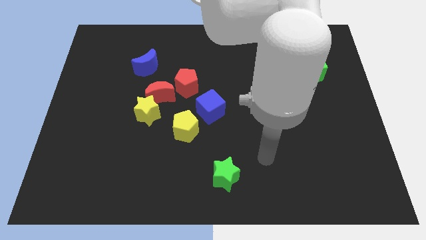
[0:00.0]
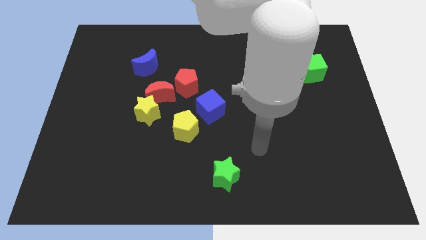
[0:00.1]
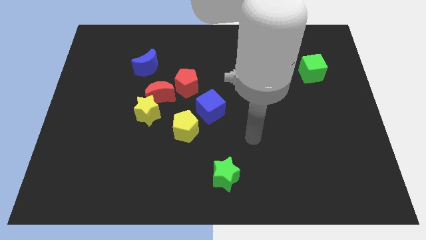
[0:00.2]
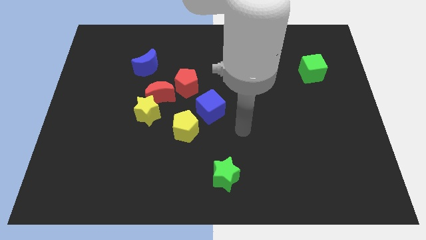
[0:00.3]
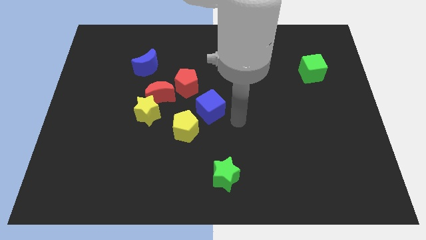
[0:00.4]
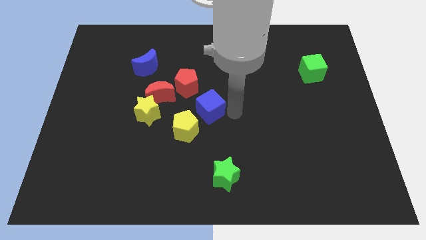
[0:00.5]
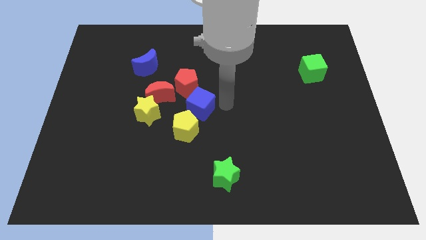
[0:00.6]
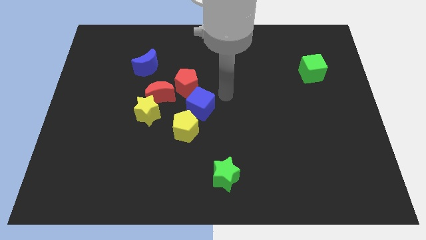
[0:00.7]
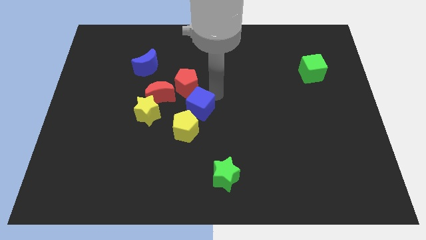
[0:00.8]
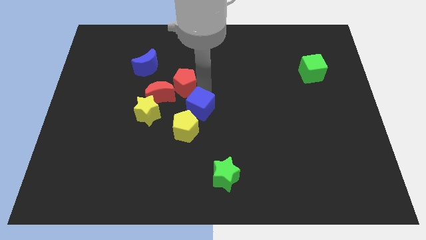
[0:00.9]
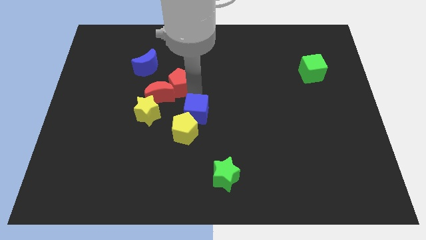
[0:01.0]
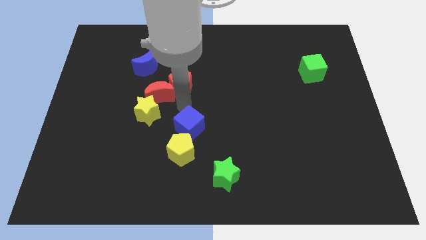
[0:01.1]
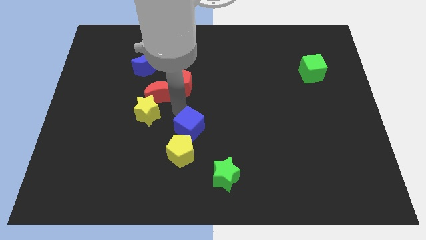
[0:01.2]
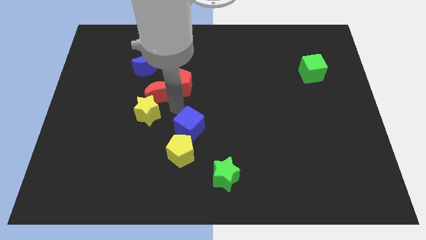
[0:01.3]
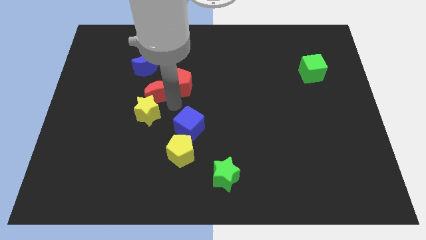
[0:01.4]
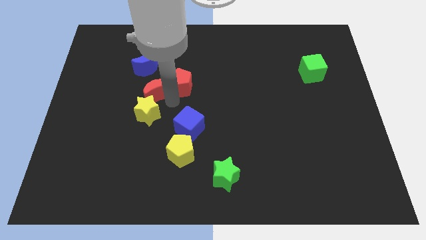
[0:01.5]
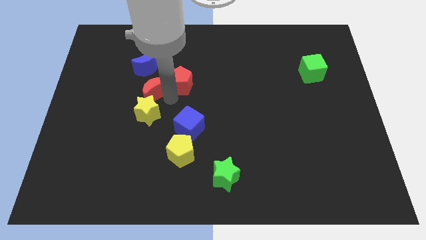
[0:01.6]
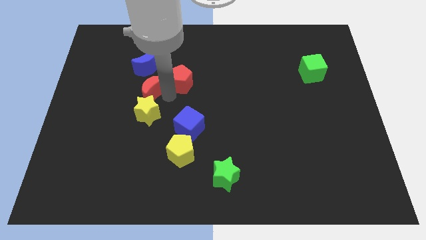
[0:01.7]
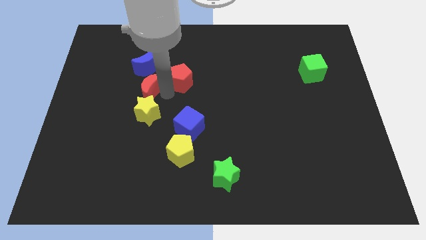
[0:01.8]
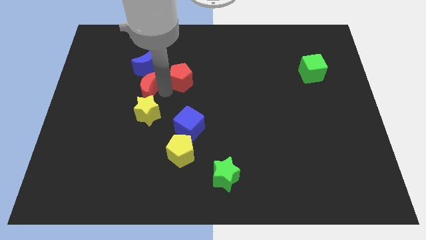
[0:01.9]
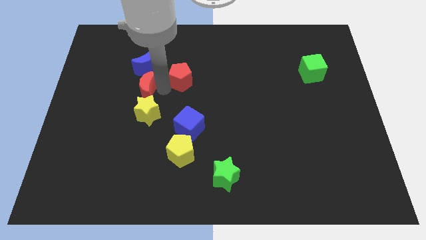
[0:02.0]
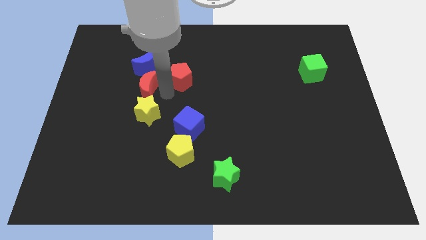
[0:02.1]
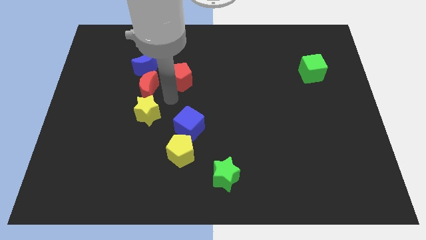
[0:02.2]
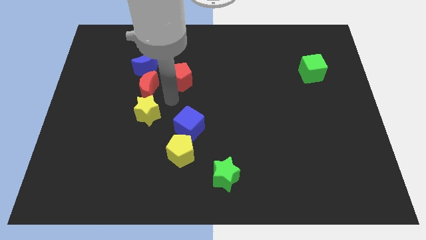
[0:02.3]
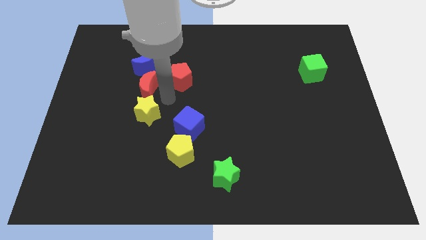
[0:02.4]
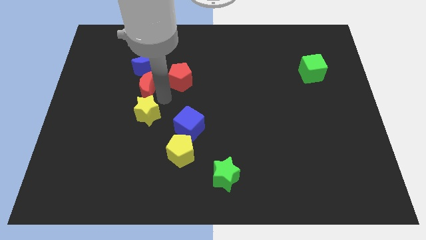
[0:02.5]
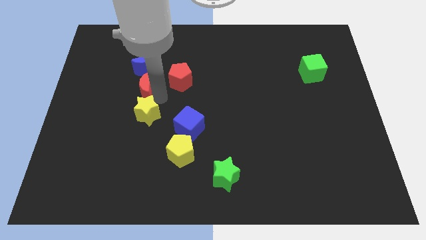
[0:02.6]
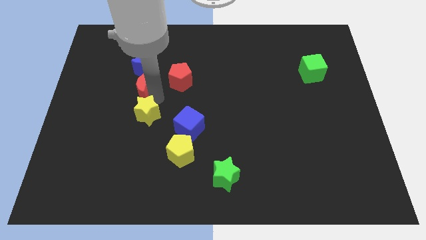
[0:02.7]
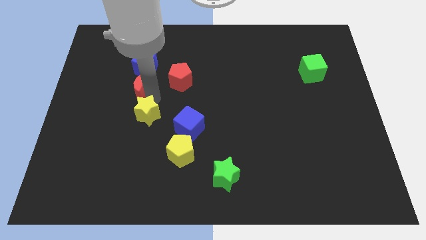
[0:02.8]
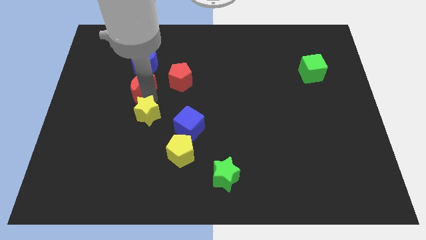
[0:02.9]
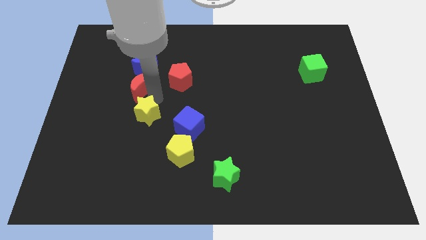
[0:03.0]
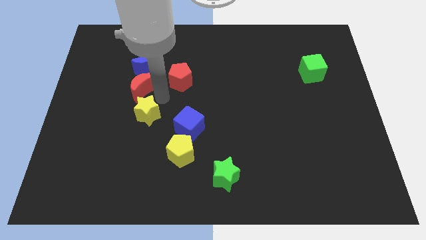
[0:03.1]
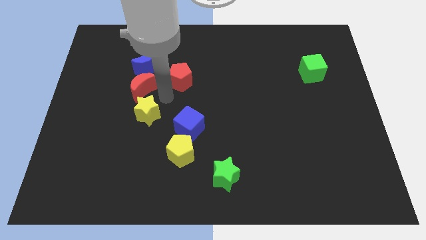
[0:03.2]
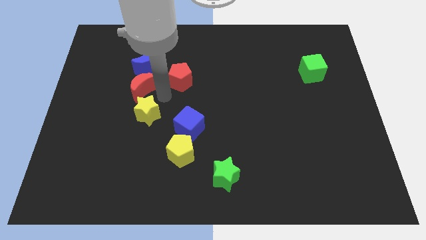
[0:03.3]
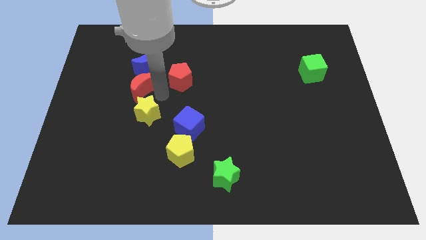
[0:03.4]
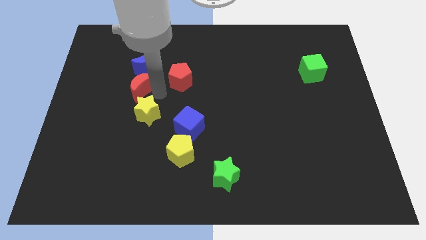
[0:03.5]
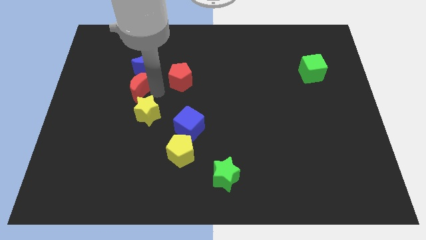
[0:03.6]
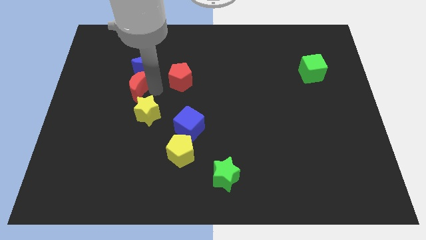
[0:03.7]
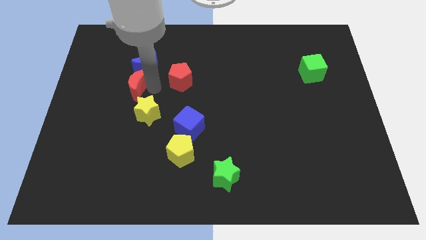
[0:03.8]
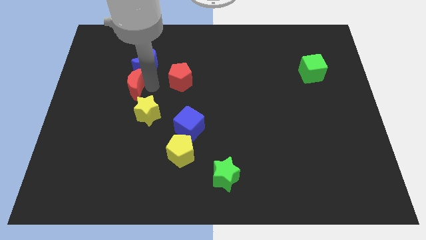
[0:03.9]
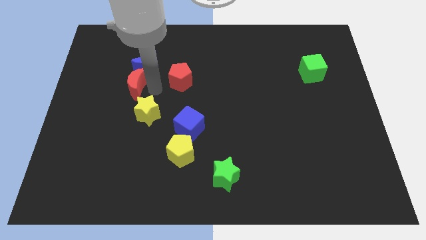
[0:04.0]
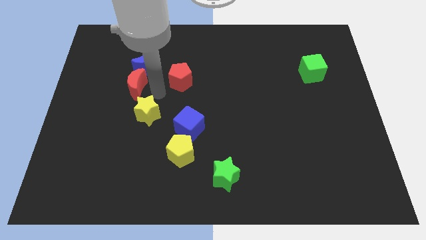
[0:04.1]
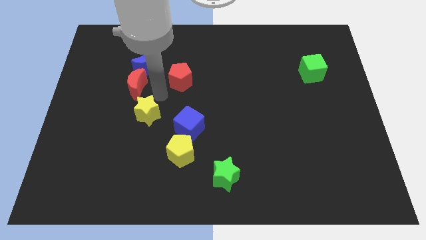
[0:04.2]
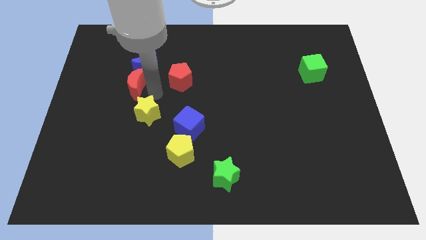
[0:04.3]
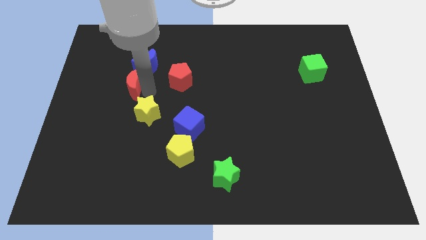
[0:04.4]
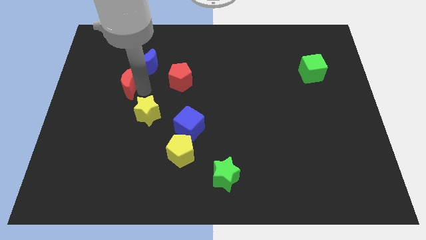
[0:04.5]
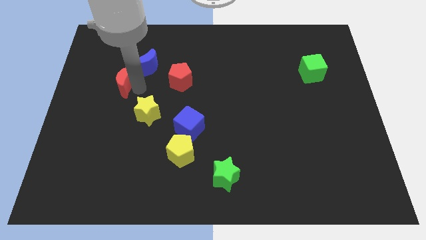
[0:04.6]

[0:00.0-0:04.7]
move the red moon away from the yellow star and red pentagon

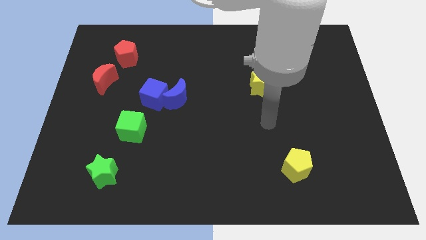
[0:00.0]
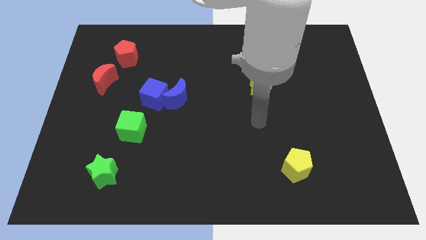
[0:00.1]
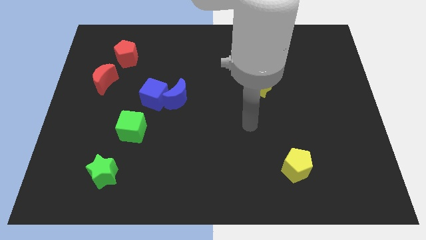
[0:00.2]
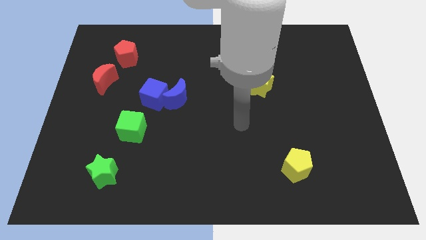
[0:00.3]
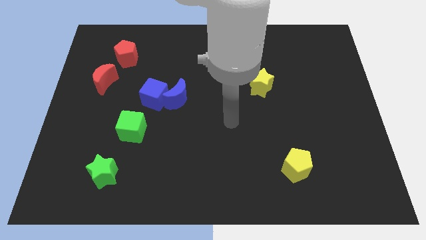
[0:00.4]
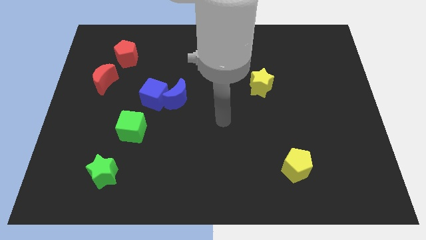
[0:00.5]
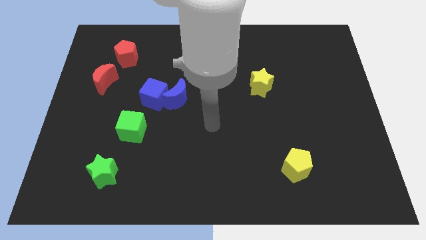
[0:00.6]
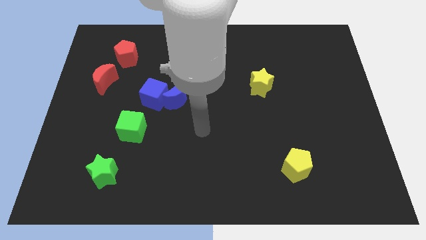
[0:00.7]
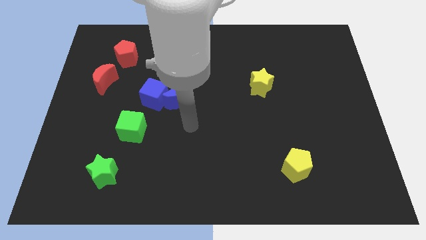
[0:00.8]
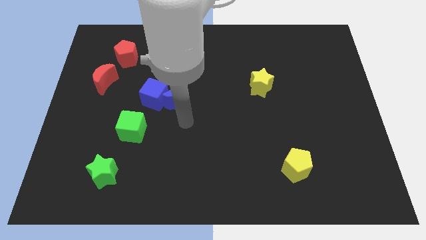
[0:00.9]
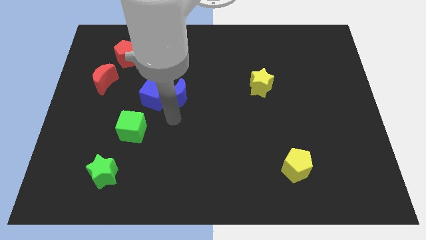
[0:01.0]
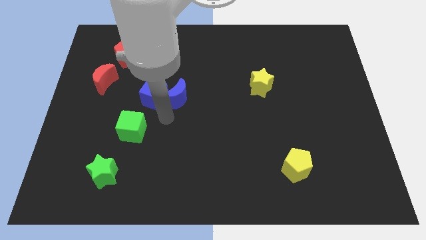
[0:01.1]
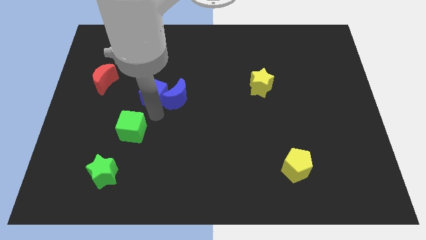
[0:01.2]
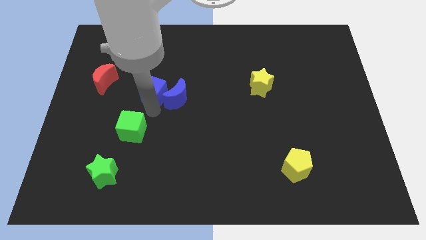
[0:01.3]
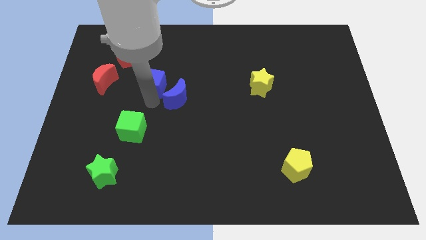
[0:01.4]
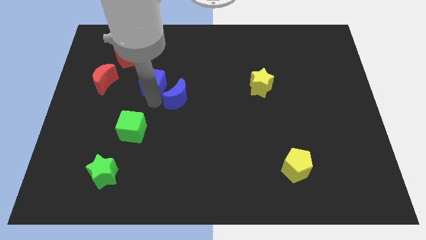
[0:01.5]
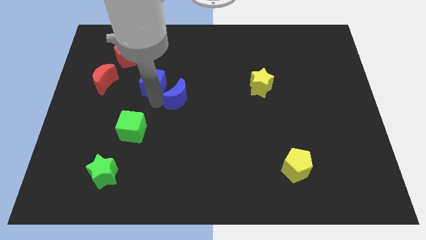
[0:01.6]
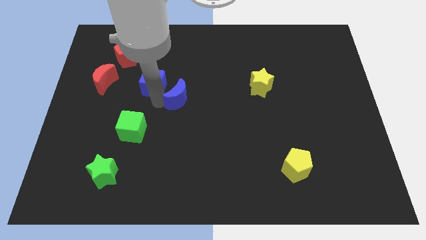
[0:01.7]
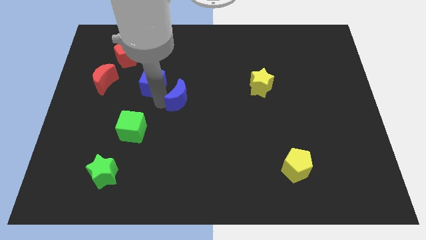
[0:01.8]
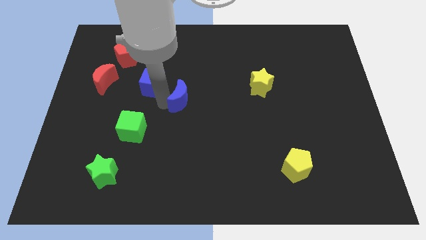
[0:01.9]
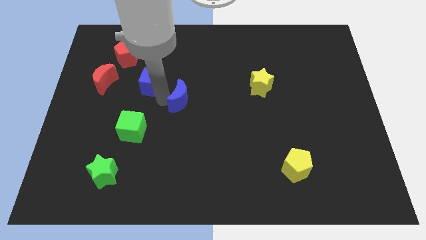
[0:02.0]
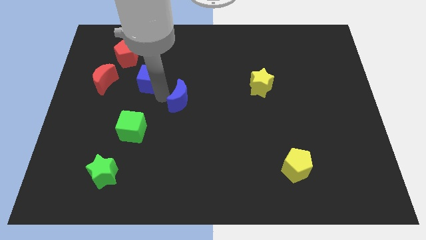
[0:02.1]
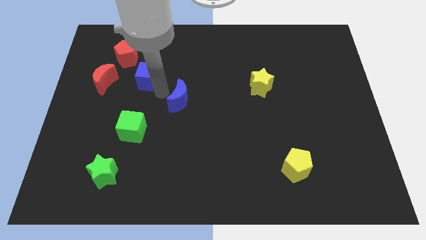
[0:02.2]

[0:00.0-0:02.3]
separate the blue moon from the blue cube

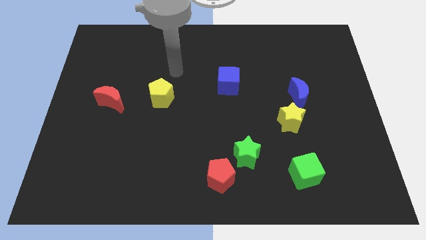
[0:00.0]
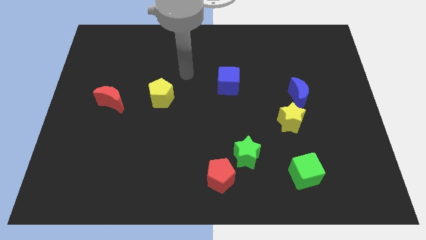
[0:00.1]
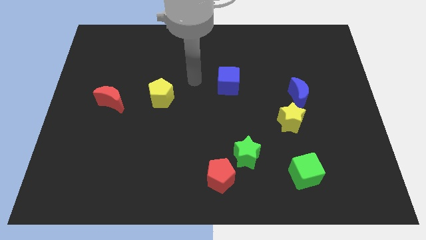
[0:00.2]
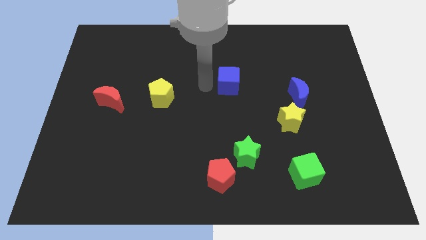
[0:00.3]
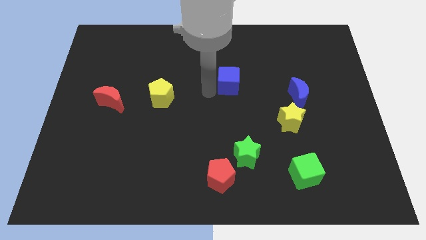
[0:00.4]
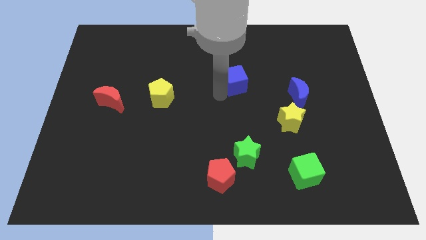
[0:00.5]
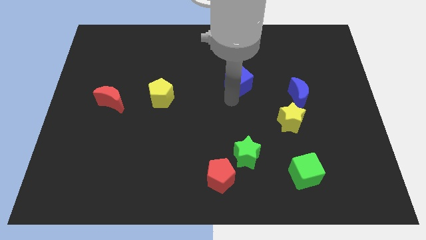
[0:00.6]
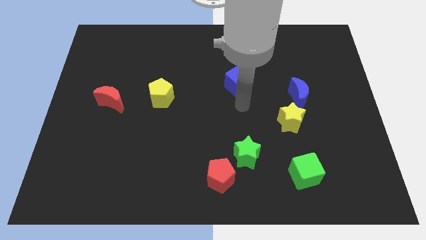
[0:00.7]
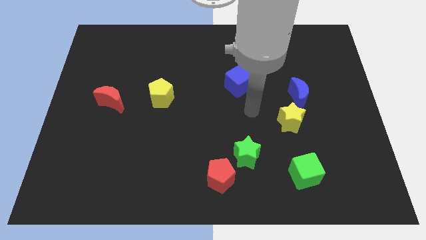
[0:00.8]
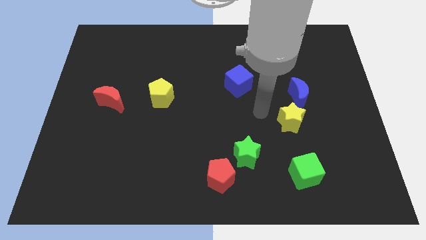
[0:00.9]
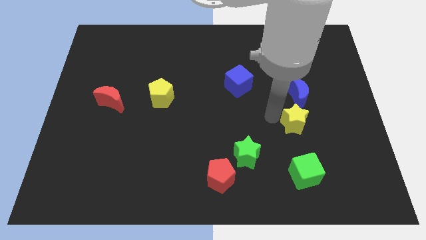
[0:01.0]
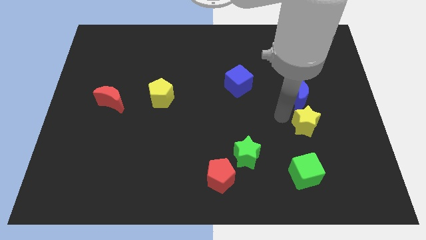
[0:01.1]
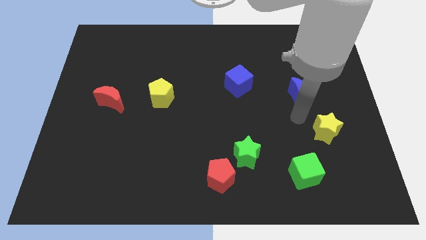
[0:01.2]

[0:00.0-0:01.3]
pull the blue moon apart from the yellow star

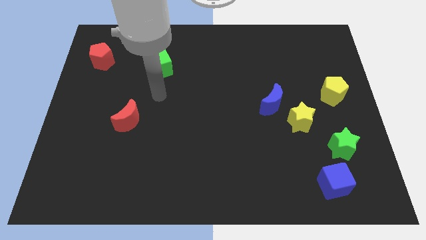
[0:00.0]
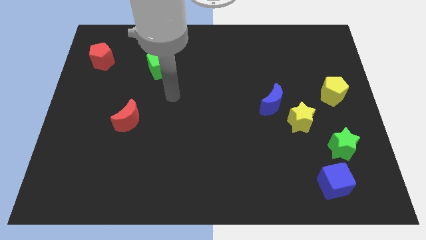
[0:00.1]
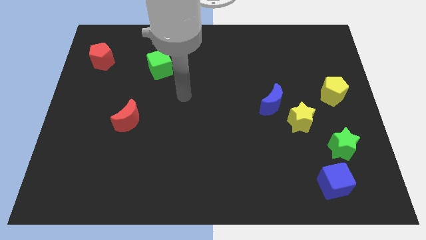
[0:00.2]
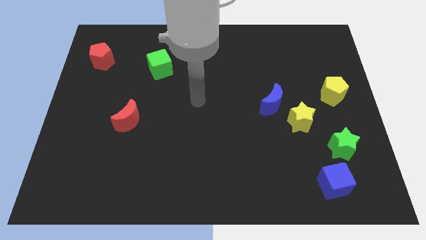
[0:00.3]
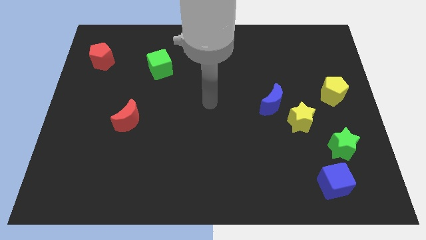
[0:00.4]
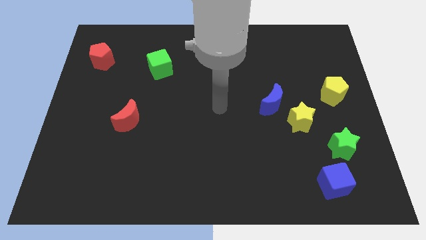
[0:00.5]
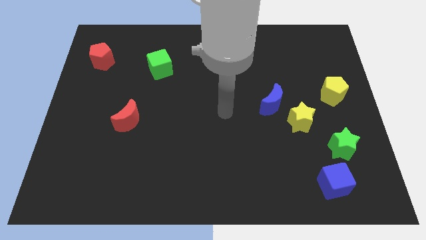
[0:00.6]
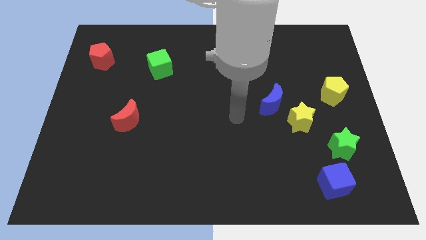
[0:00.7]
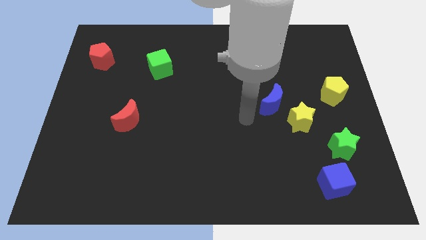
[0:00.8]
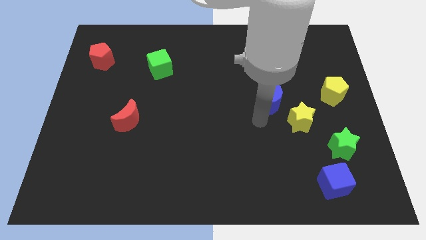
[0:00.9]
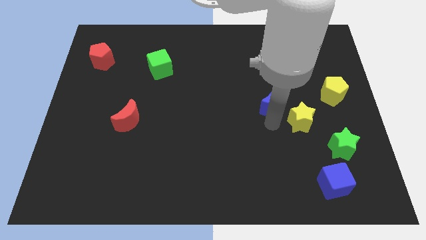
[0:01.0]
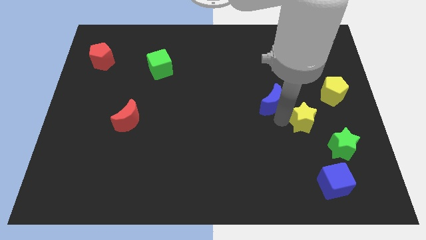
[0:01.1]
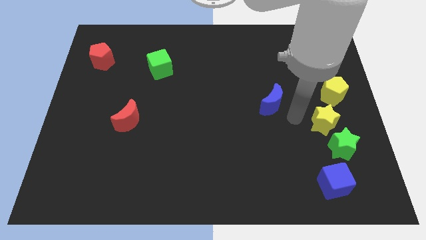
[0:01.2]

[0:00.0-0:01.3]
move the blue moon away from the yellow star

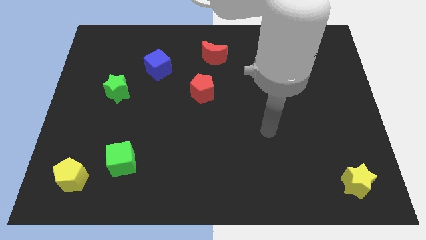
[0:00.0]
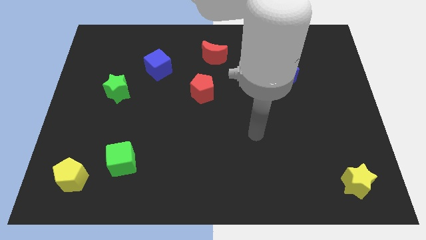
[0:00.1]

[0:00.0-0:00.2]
move the green cube away from the yellow pentagon
